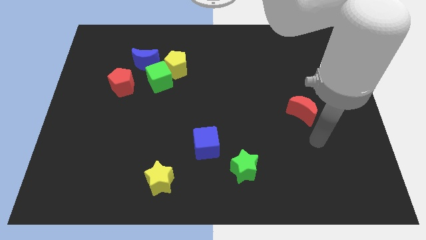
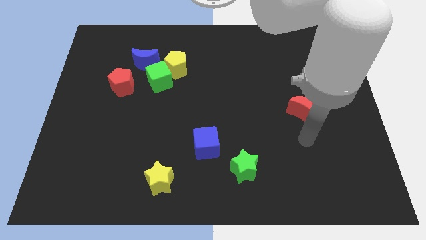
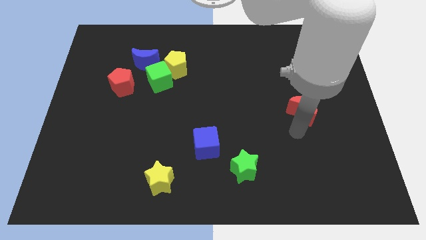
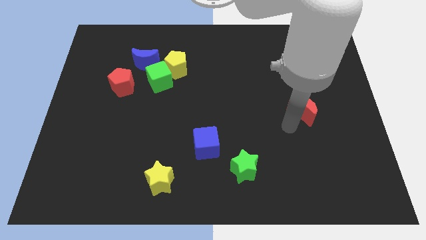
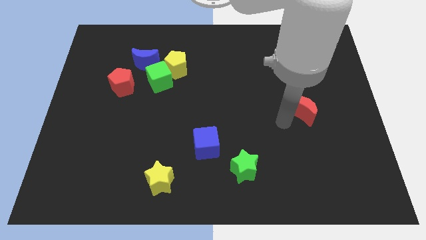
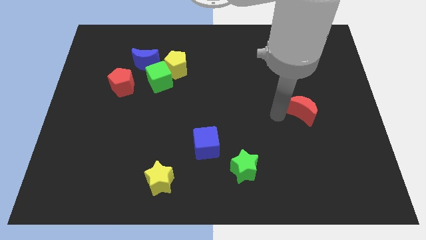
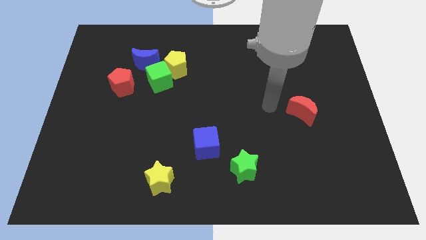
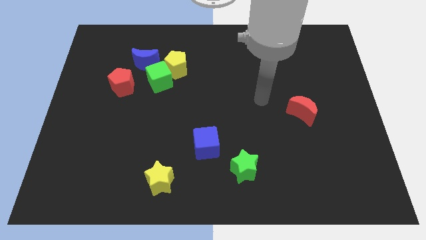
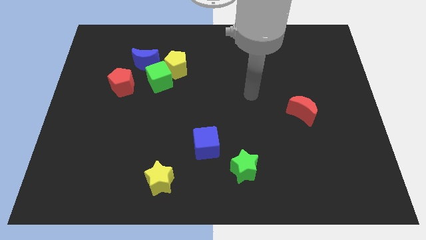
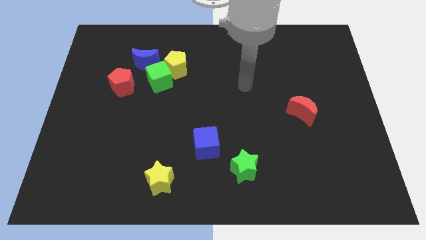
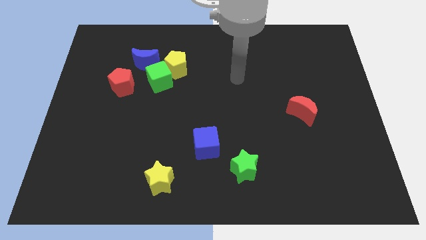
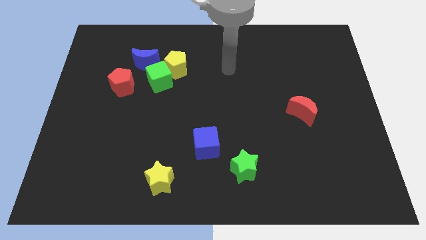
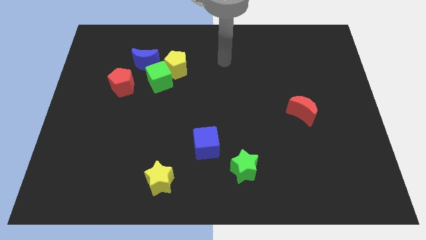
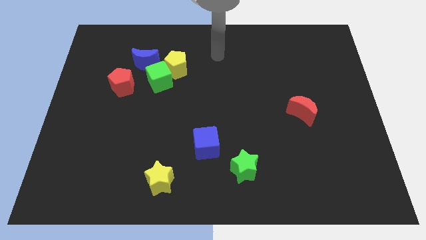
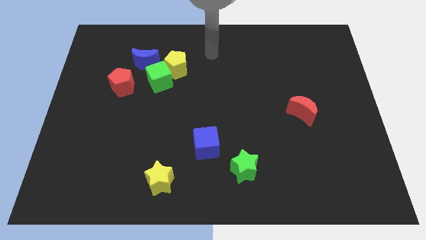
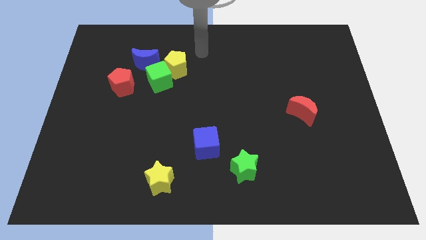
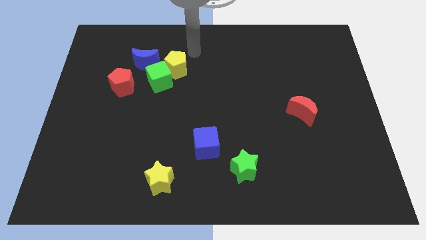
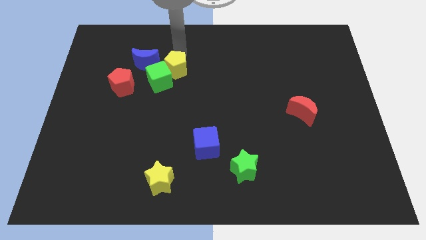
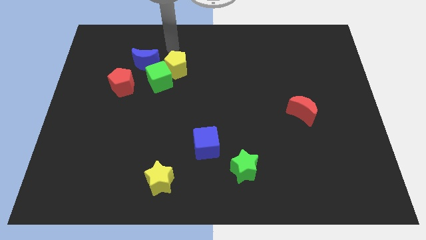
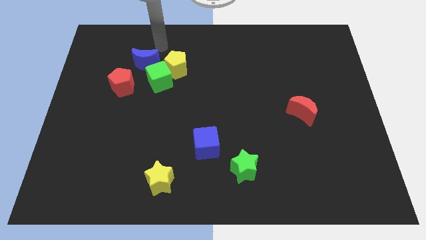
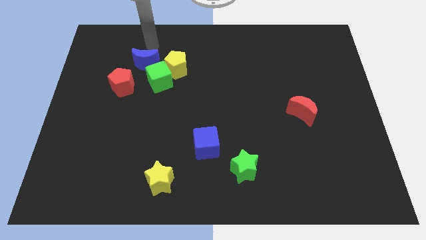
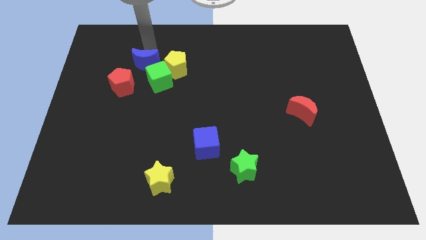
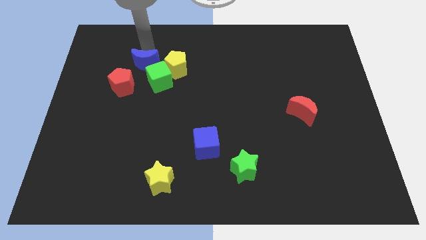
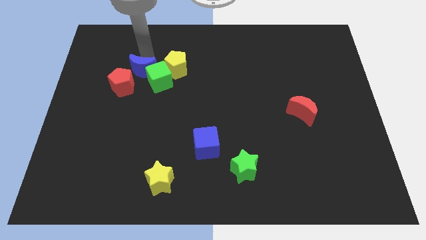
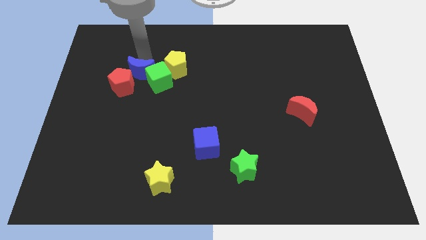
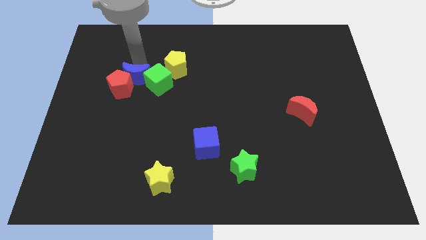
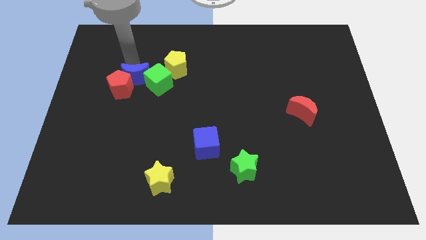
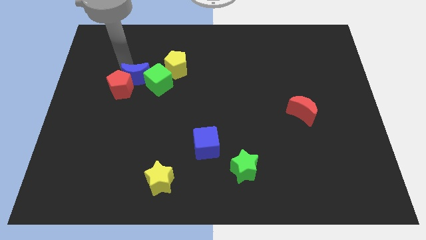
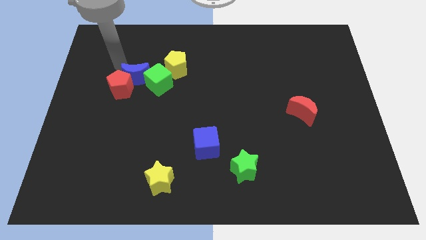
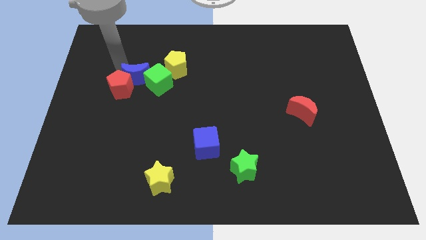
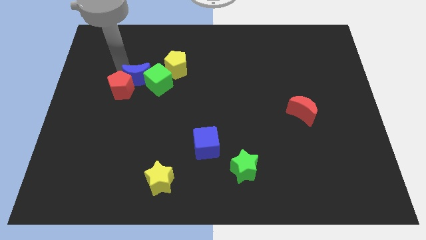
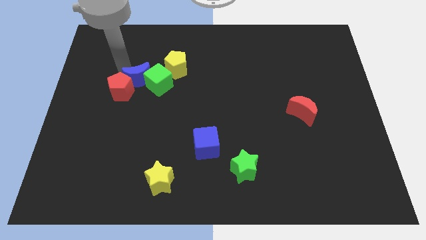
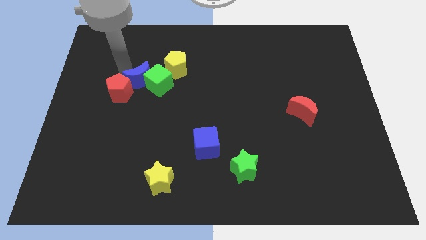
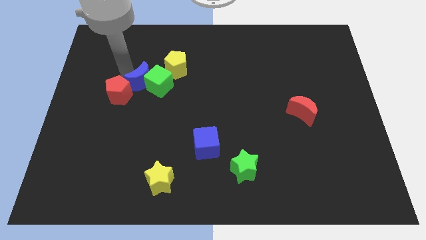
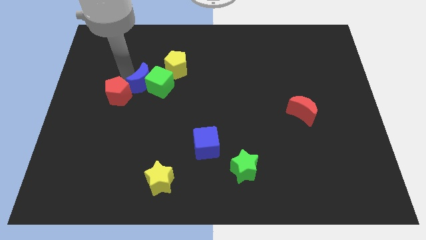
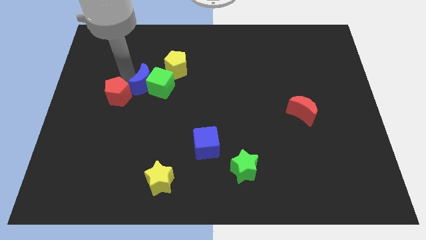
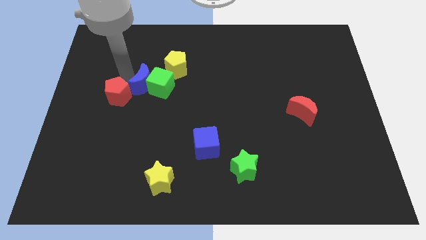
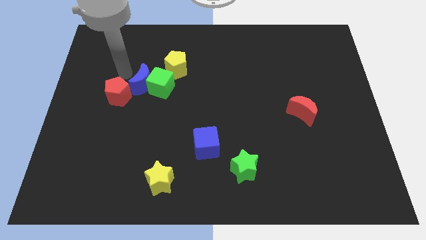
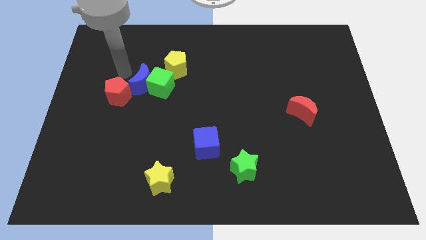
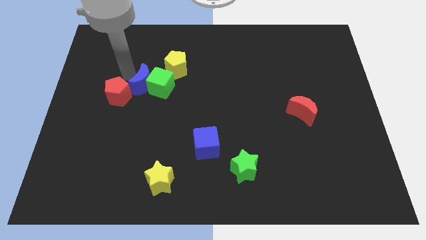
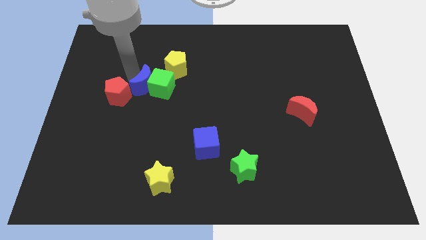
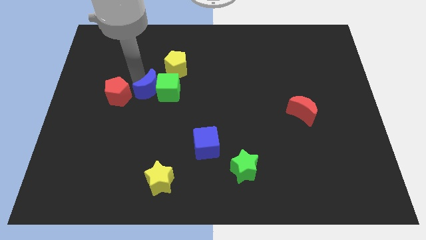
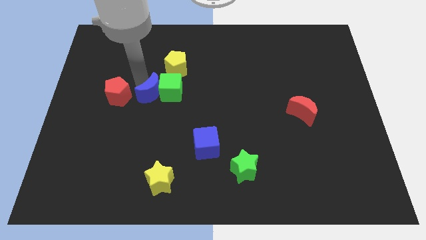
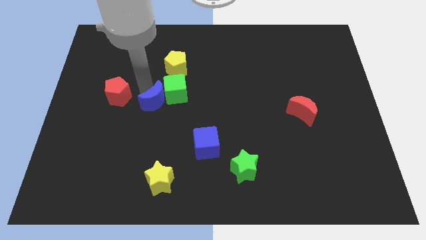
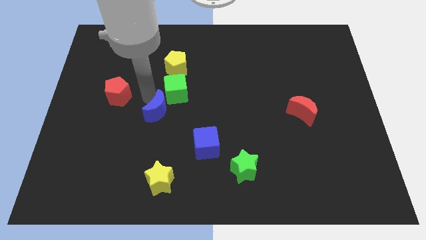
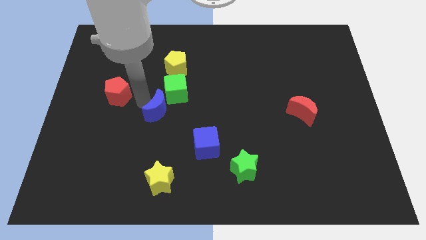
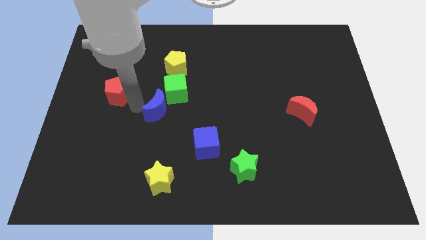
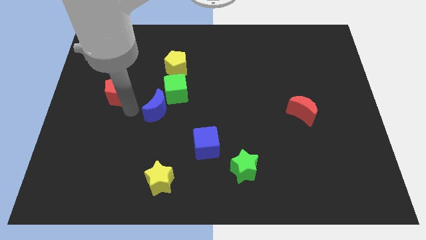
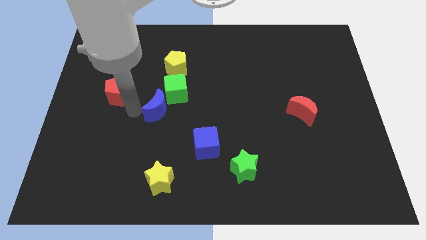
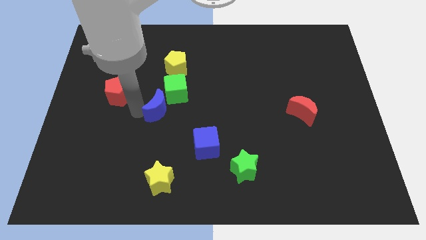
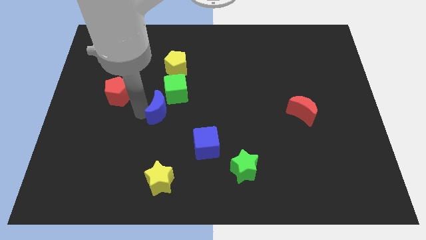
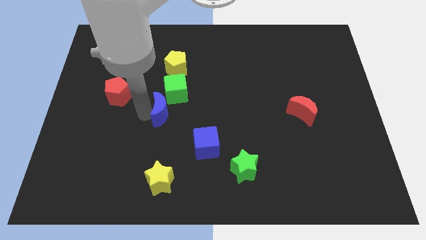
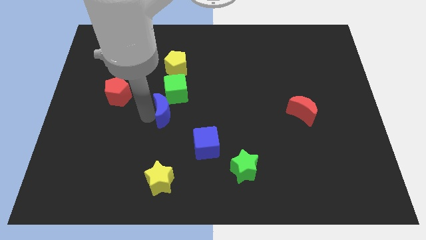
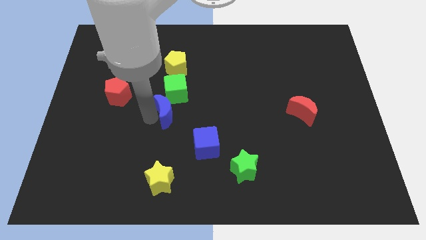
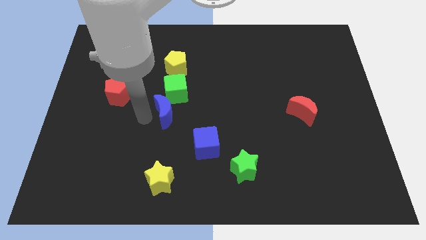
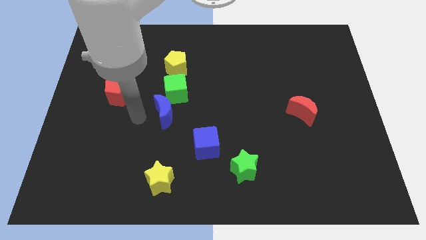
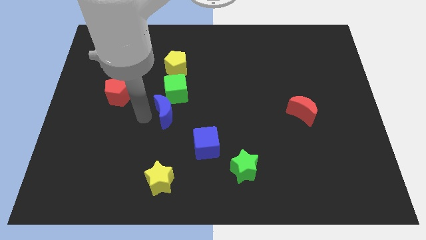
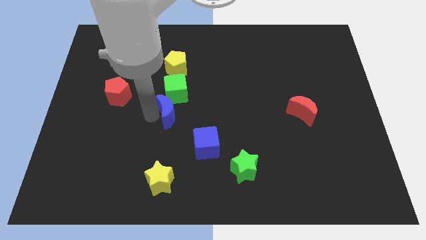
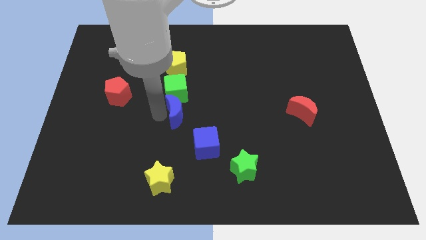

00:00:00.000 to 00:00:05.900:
move the blue moon to the bottom right side of the green cube

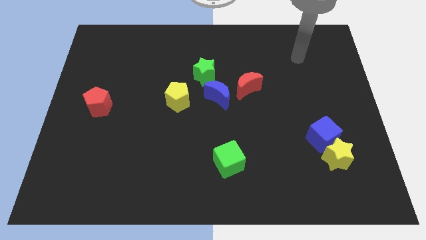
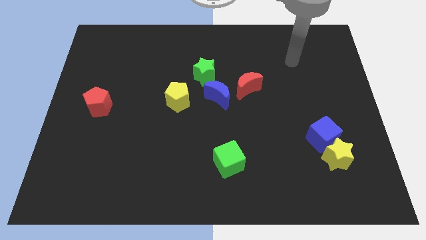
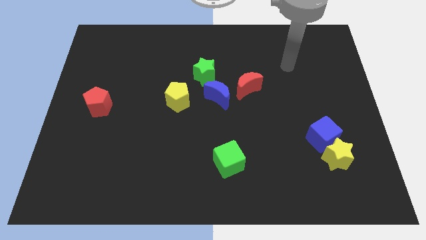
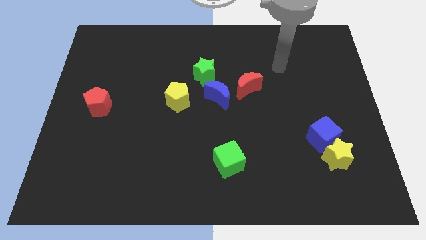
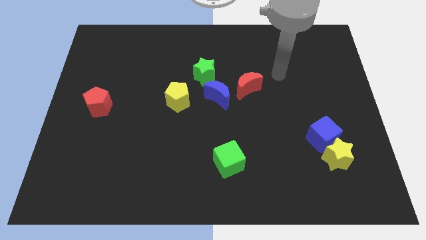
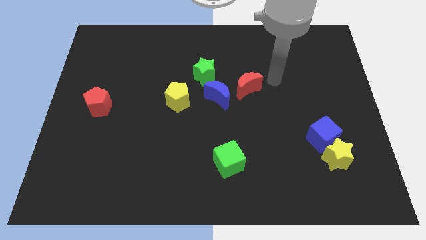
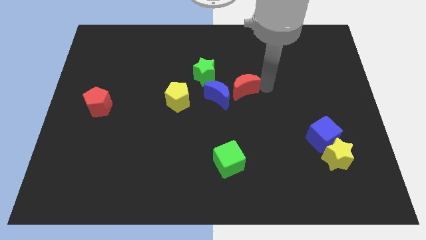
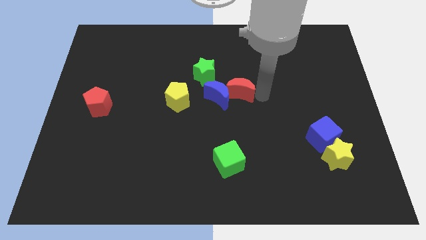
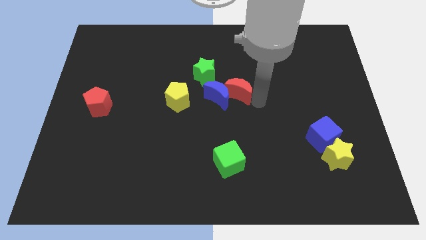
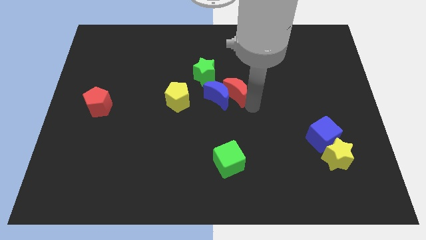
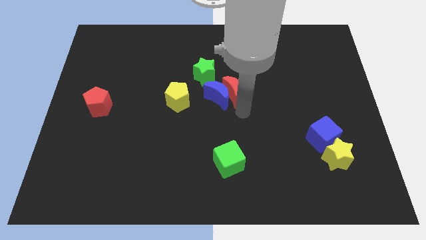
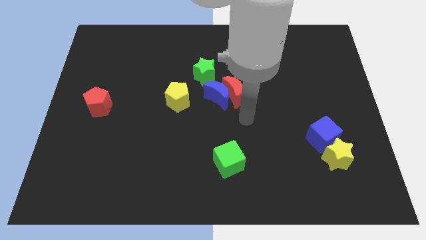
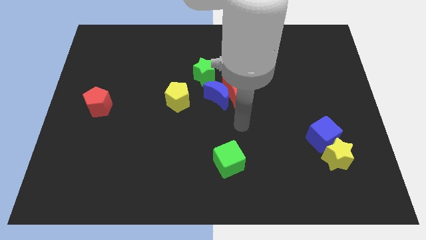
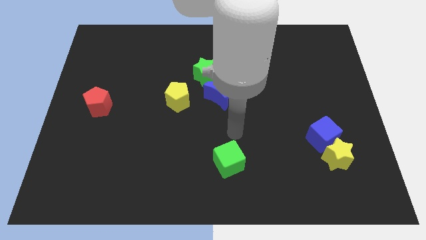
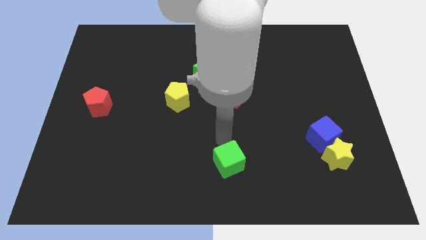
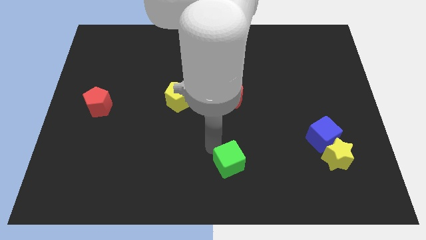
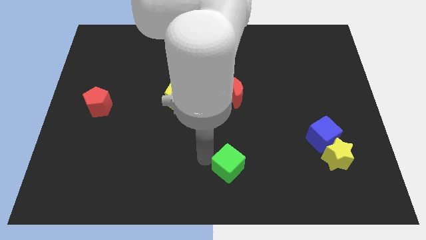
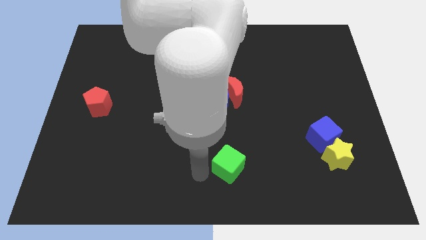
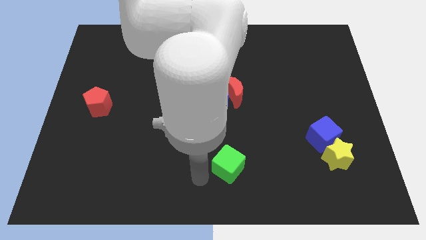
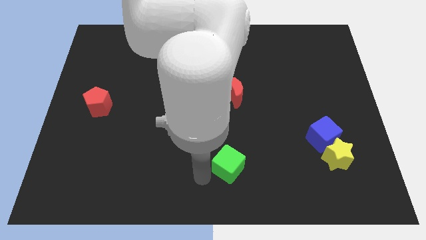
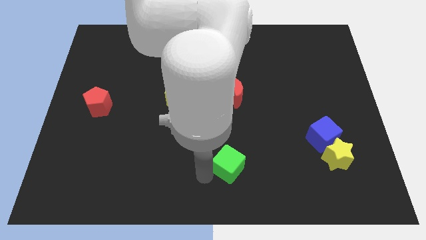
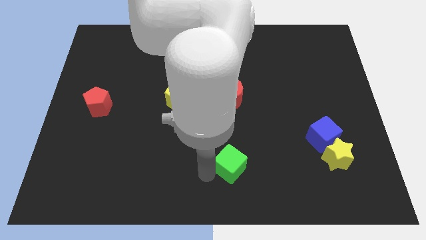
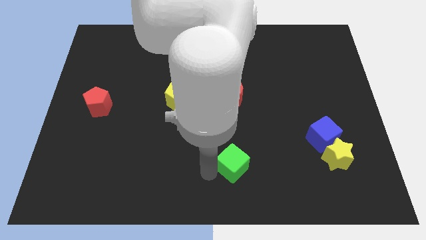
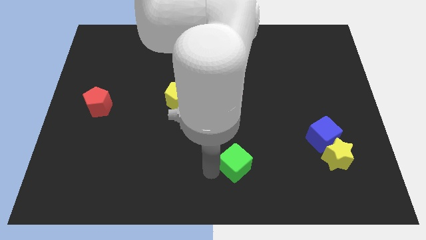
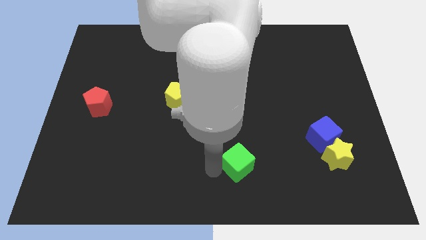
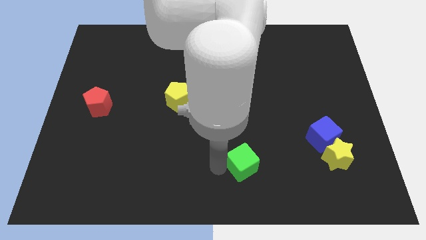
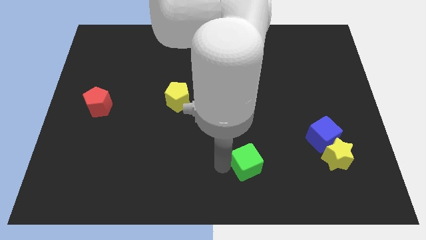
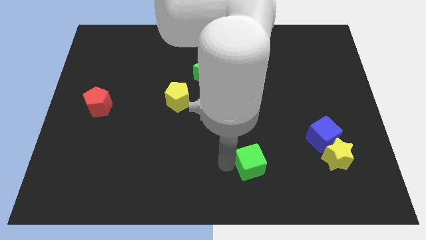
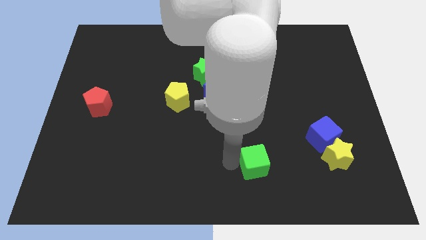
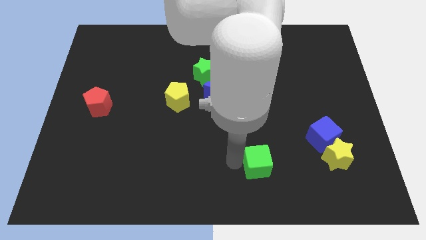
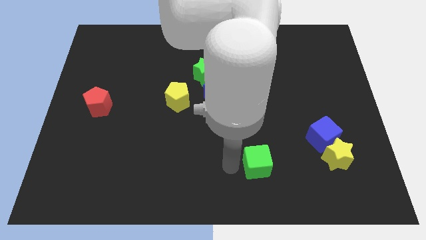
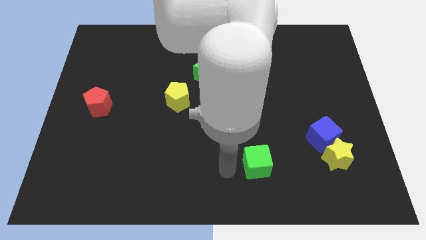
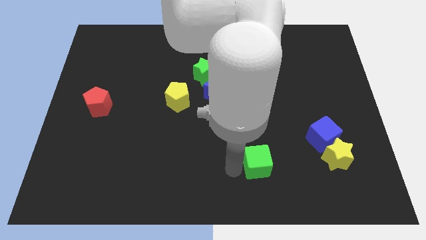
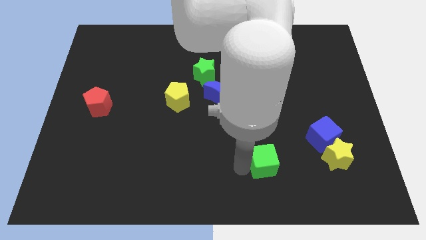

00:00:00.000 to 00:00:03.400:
push the green cube to the left of the yellow star
